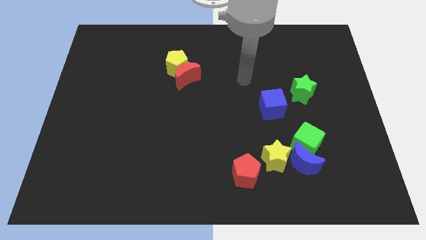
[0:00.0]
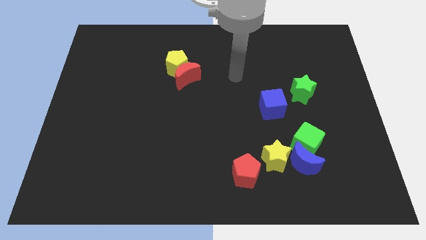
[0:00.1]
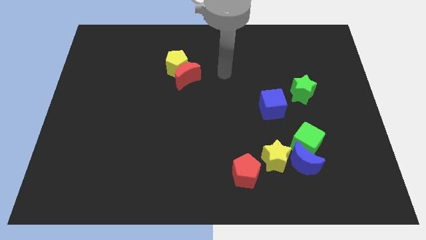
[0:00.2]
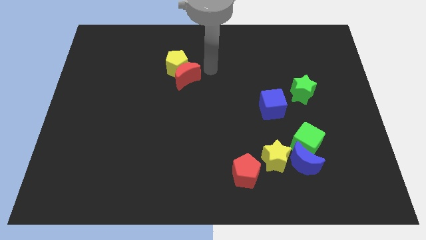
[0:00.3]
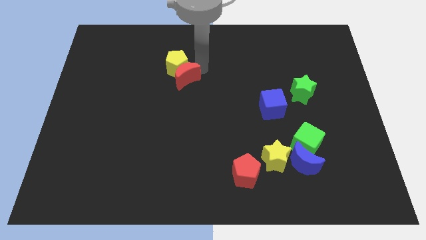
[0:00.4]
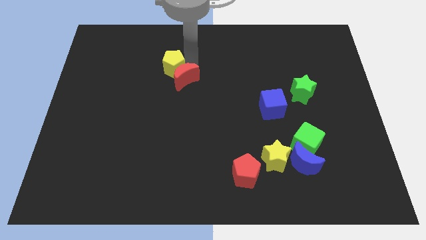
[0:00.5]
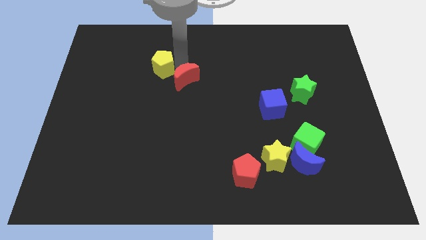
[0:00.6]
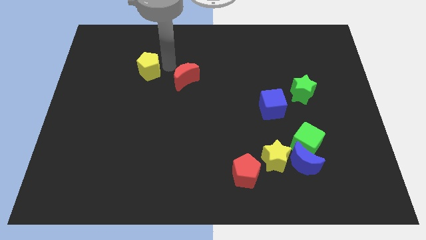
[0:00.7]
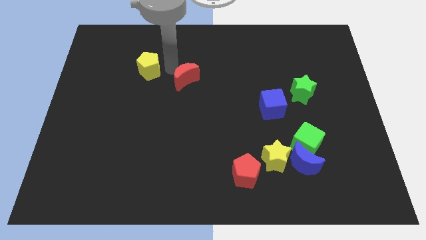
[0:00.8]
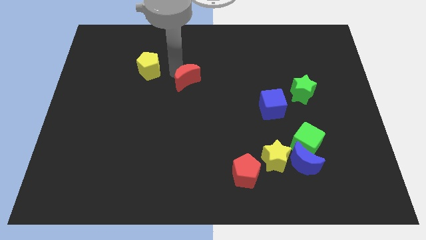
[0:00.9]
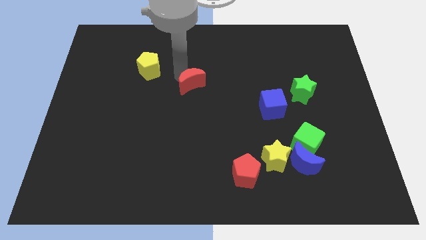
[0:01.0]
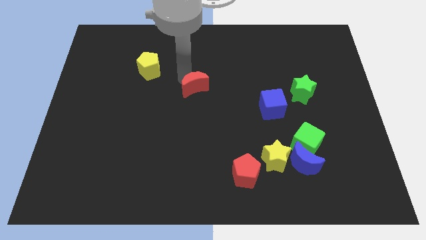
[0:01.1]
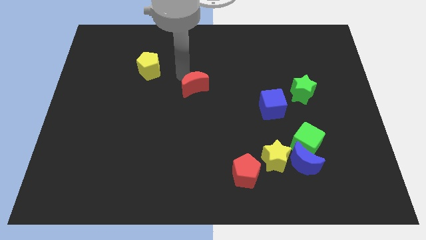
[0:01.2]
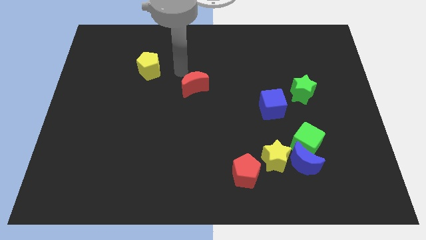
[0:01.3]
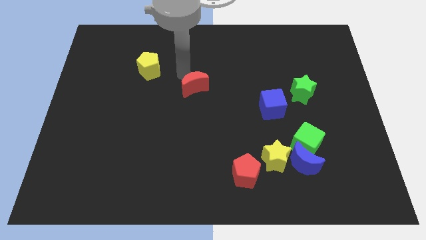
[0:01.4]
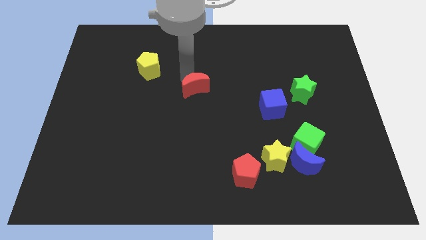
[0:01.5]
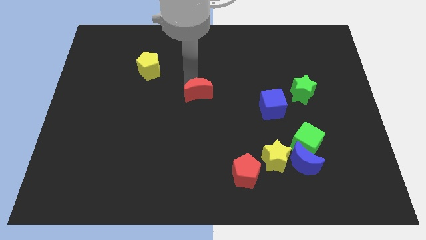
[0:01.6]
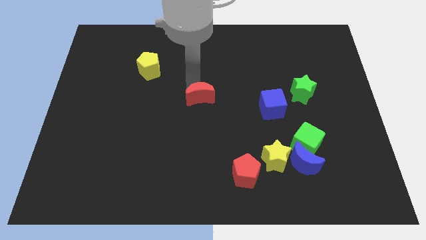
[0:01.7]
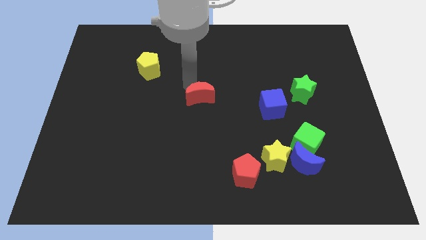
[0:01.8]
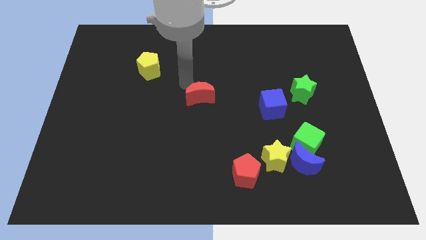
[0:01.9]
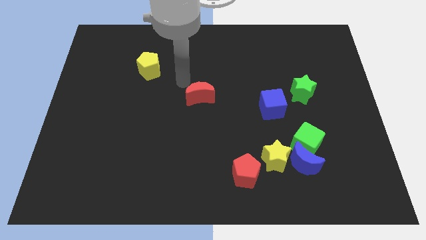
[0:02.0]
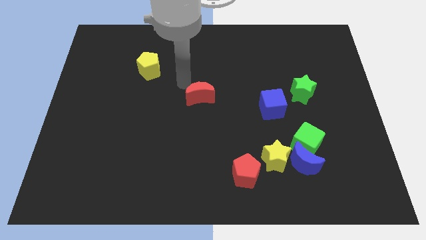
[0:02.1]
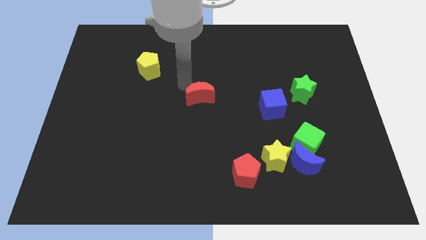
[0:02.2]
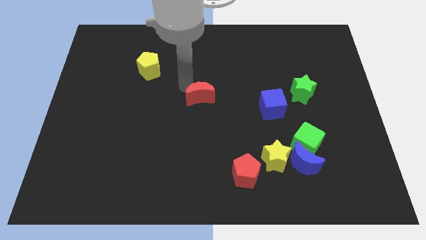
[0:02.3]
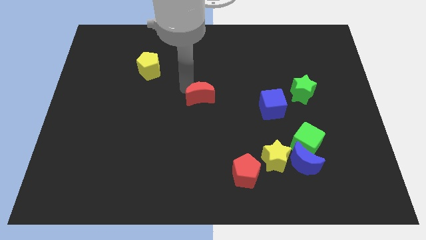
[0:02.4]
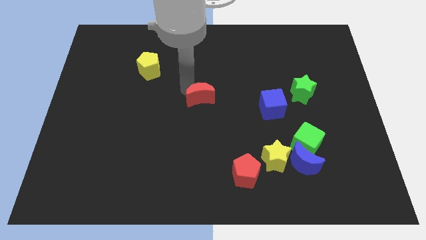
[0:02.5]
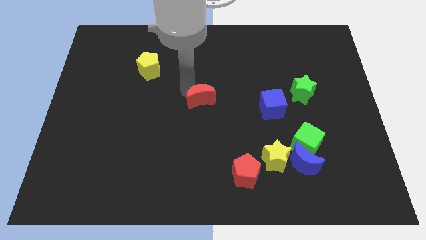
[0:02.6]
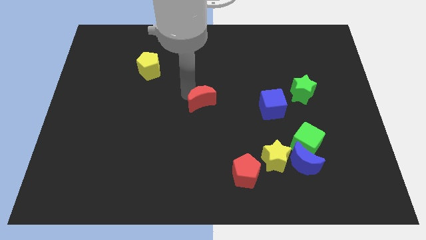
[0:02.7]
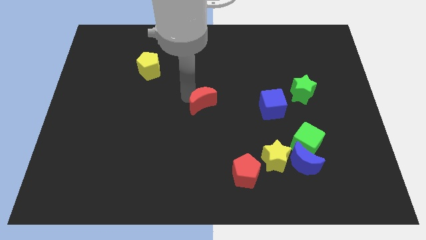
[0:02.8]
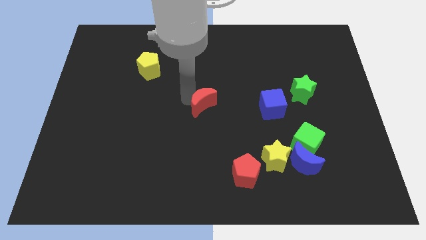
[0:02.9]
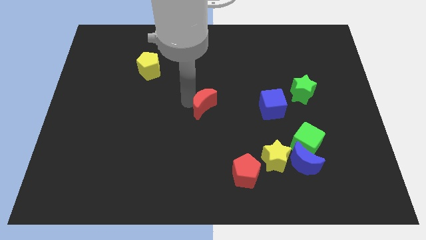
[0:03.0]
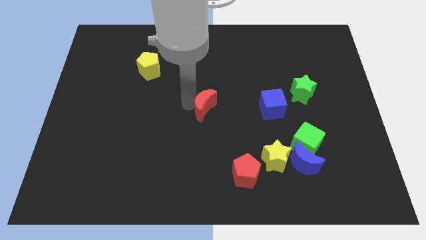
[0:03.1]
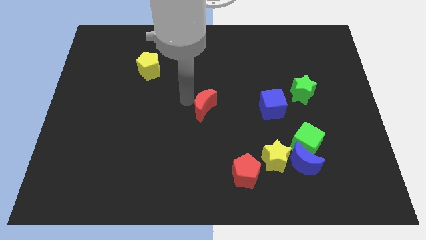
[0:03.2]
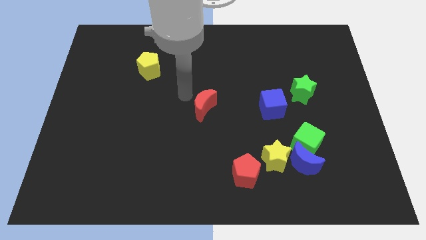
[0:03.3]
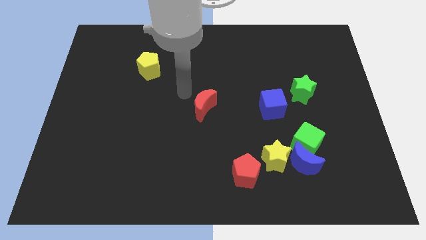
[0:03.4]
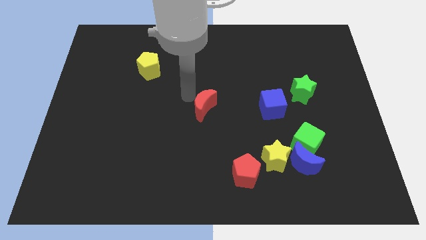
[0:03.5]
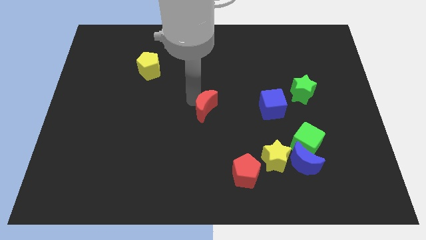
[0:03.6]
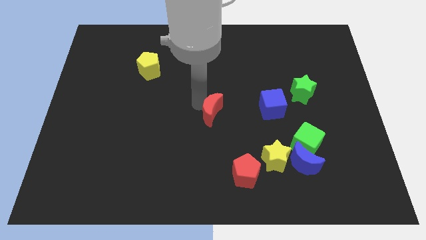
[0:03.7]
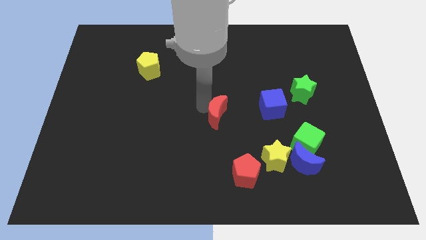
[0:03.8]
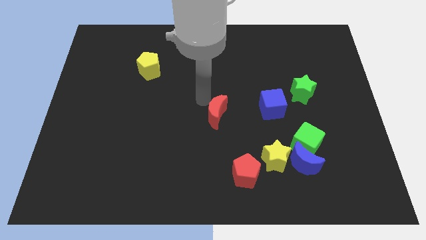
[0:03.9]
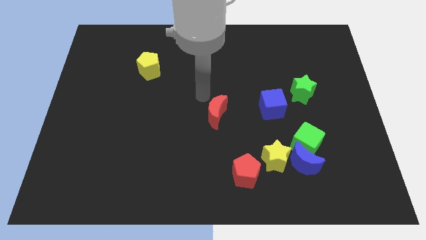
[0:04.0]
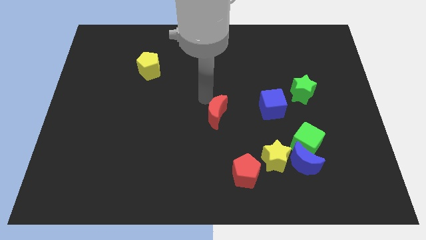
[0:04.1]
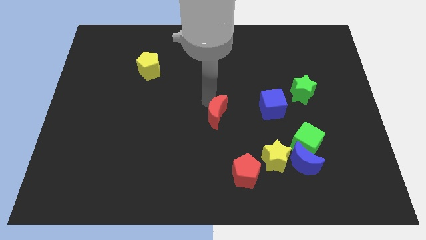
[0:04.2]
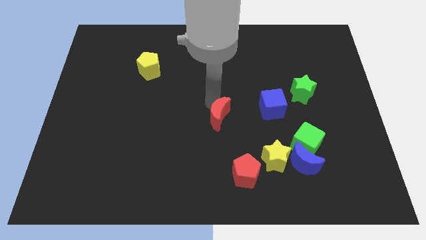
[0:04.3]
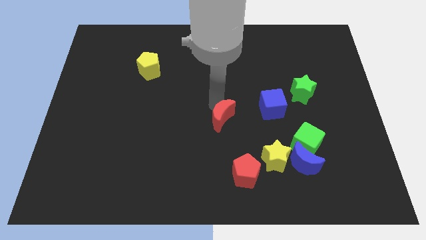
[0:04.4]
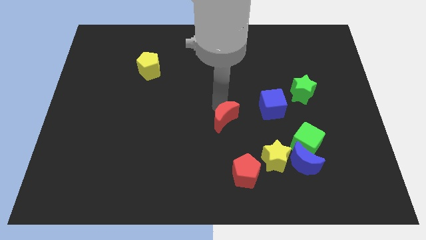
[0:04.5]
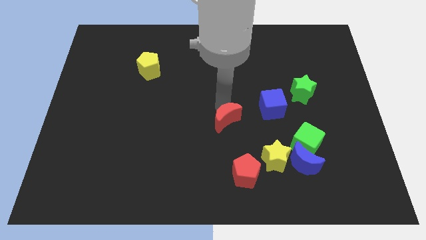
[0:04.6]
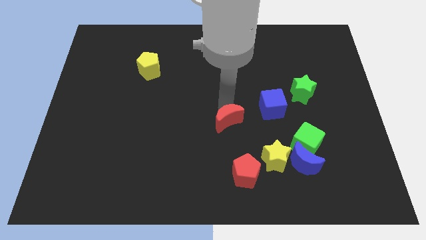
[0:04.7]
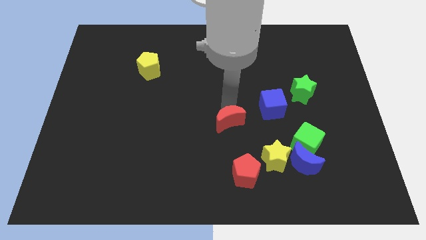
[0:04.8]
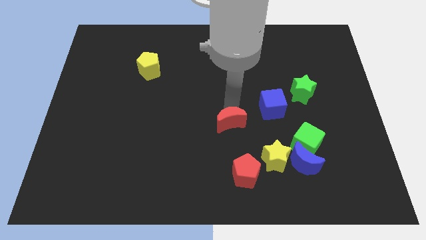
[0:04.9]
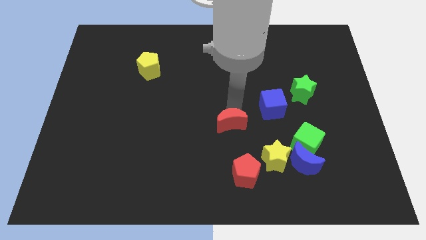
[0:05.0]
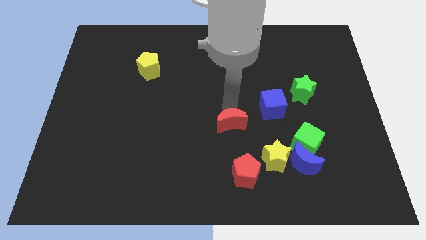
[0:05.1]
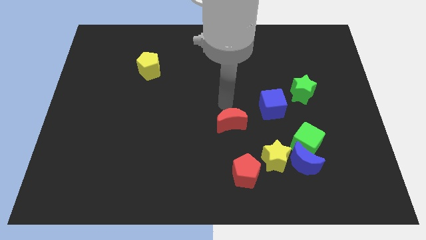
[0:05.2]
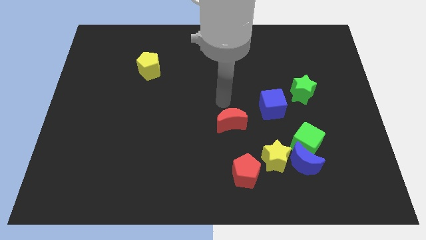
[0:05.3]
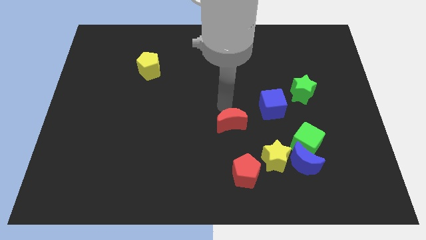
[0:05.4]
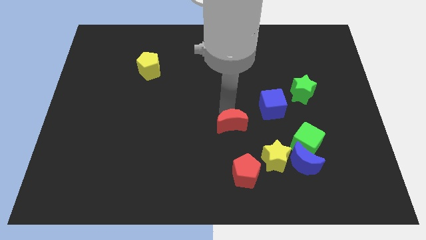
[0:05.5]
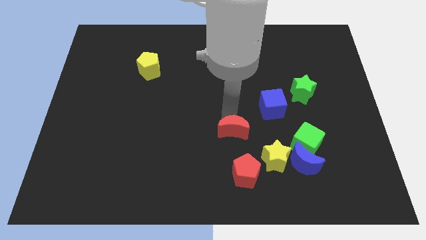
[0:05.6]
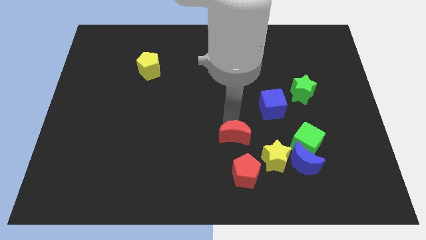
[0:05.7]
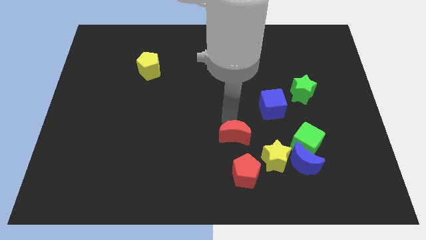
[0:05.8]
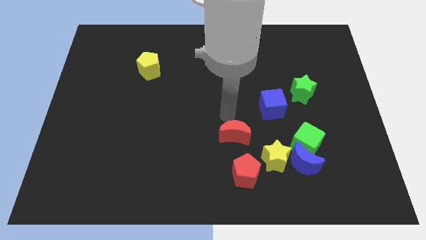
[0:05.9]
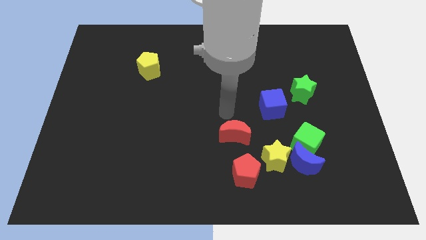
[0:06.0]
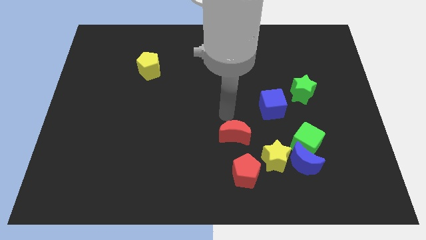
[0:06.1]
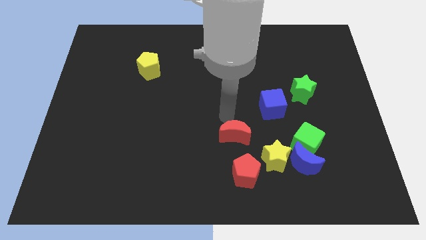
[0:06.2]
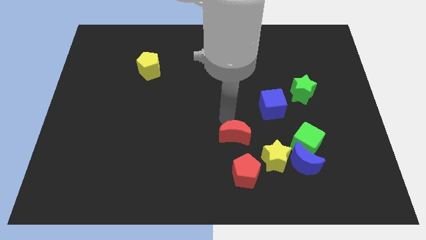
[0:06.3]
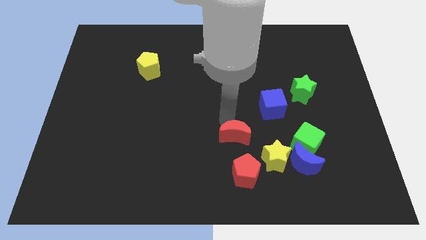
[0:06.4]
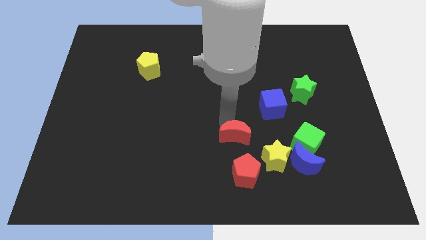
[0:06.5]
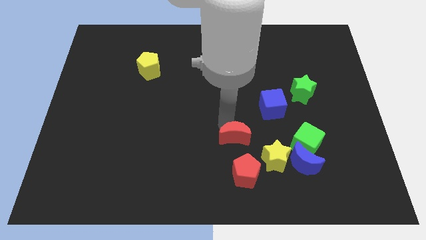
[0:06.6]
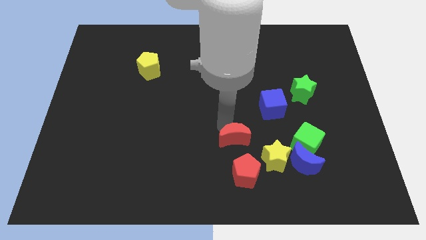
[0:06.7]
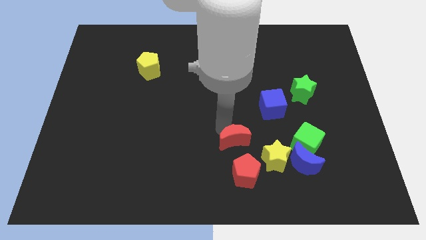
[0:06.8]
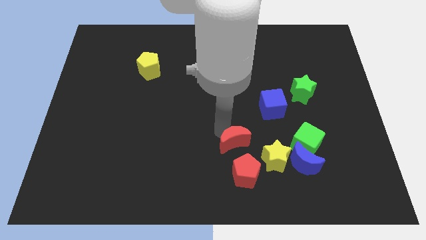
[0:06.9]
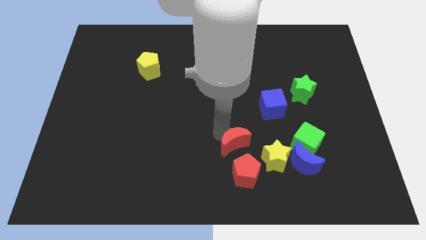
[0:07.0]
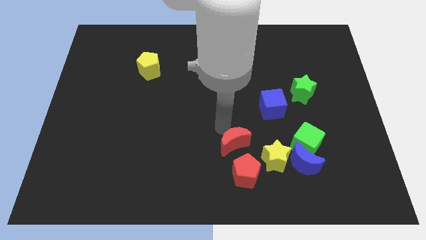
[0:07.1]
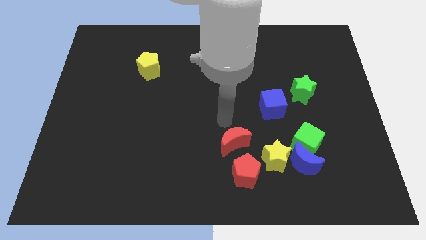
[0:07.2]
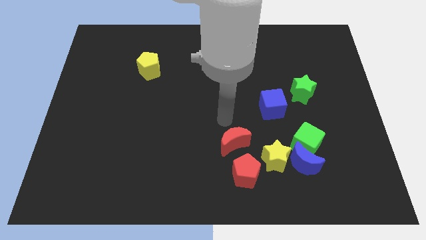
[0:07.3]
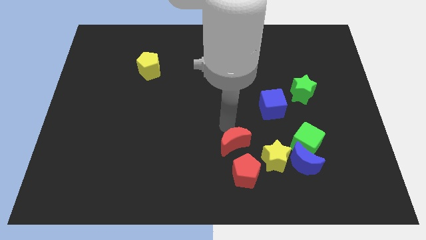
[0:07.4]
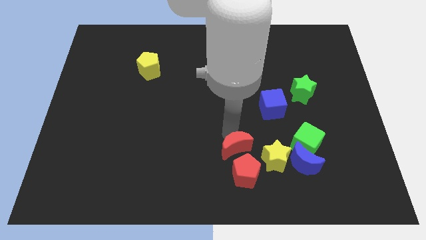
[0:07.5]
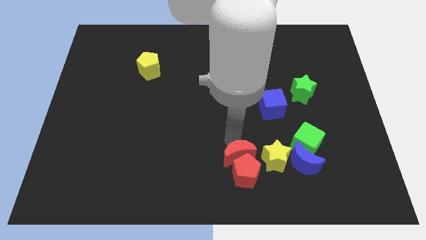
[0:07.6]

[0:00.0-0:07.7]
move the red moon towards the red pentagon

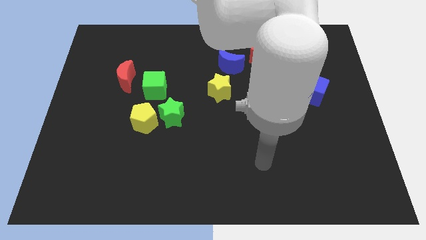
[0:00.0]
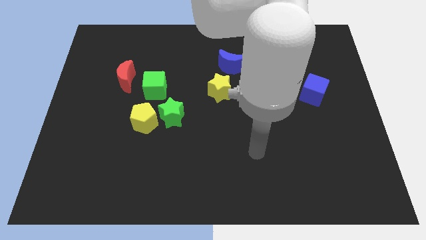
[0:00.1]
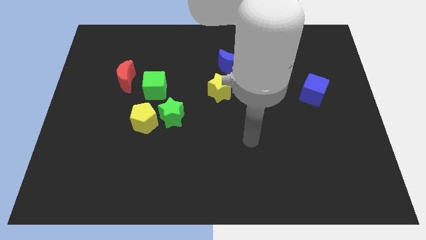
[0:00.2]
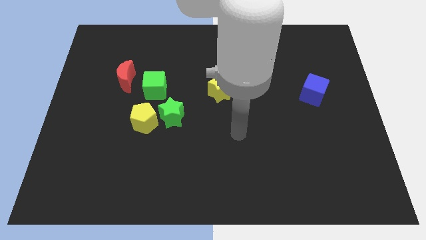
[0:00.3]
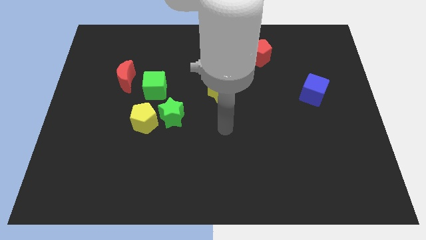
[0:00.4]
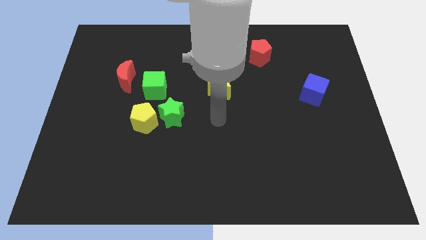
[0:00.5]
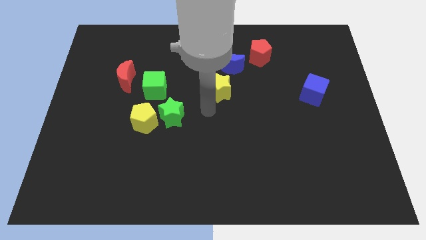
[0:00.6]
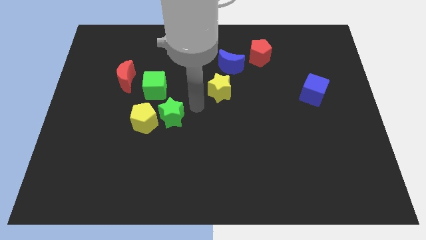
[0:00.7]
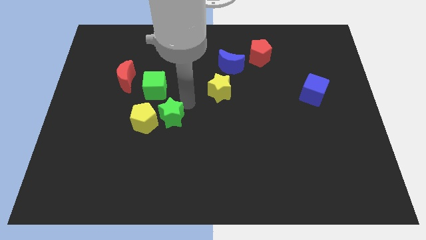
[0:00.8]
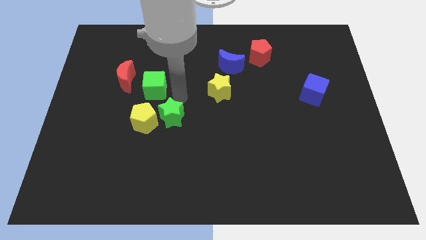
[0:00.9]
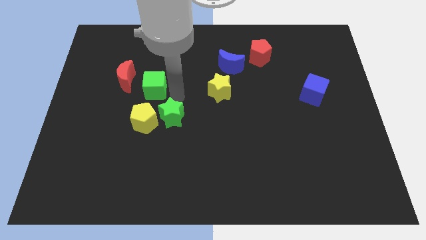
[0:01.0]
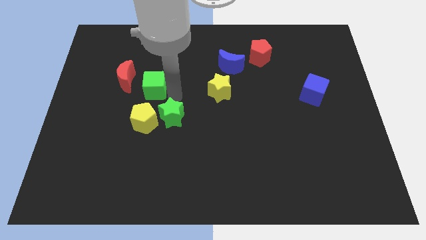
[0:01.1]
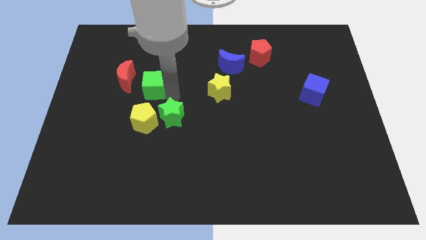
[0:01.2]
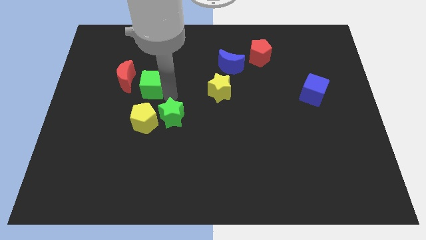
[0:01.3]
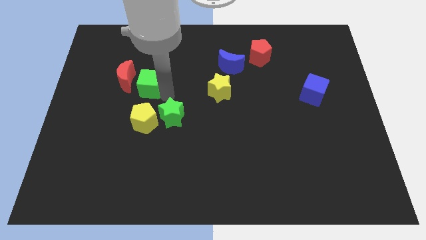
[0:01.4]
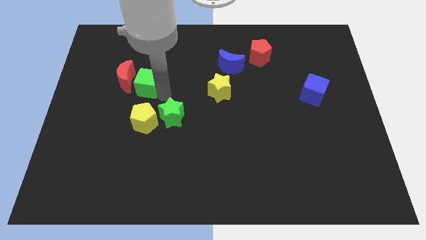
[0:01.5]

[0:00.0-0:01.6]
slide the green cube to the red moon
